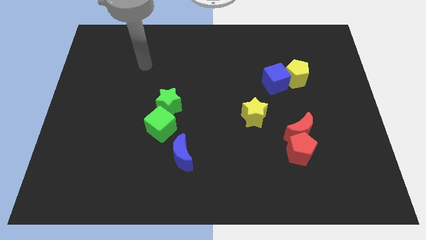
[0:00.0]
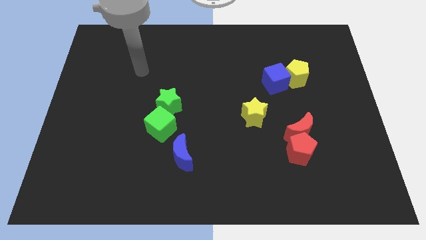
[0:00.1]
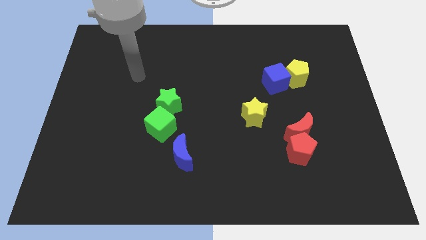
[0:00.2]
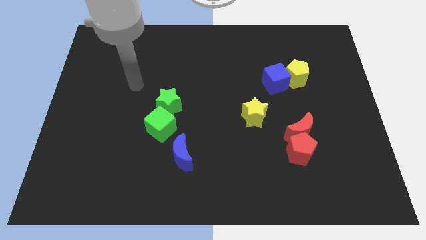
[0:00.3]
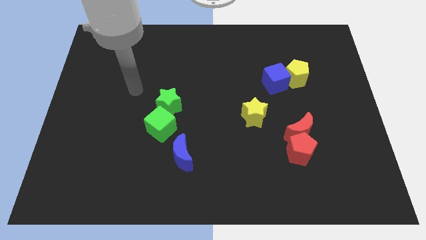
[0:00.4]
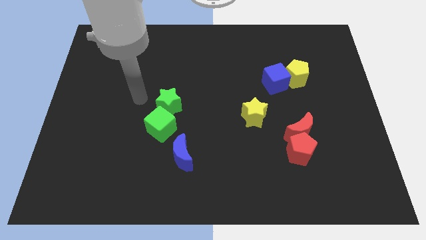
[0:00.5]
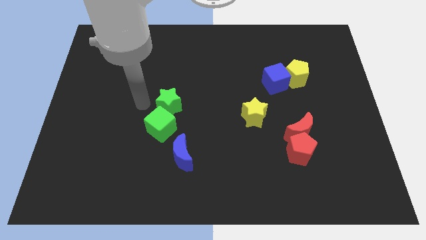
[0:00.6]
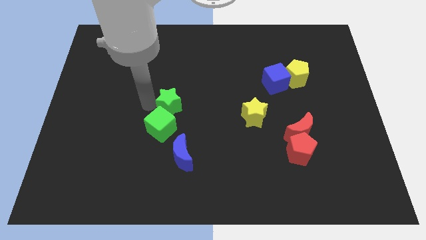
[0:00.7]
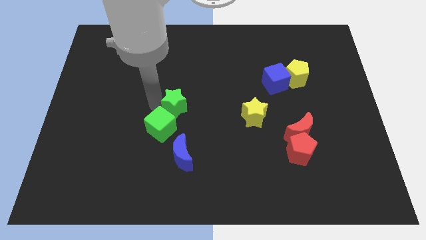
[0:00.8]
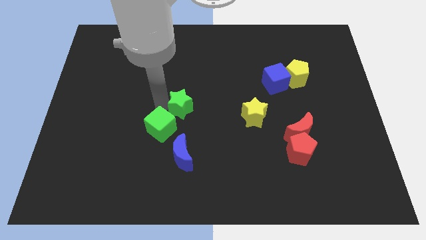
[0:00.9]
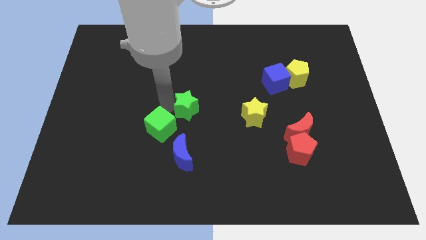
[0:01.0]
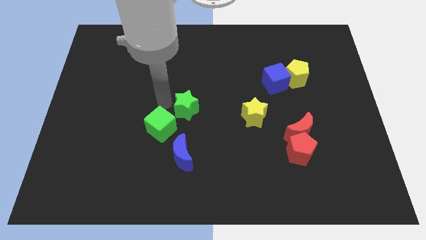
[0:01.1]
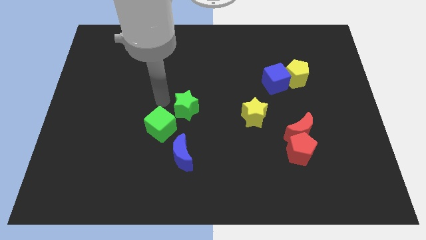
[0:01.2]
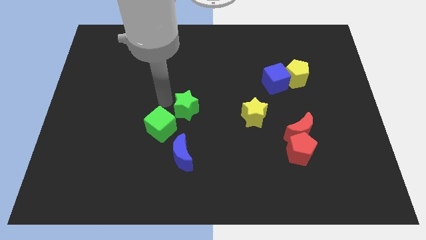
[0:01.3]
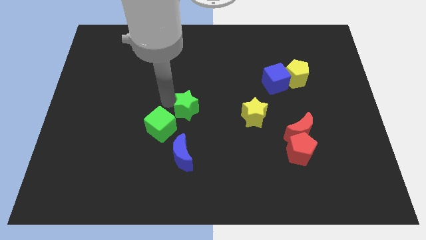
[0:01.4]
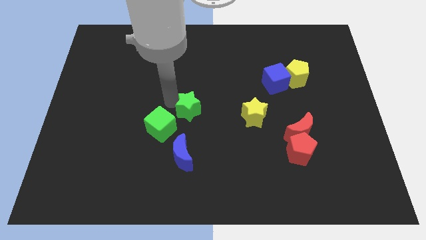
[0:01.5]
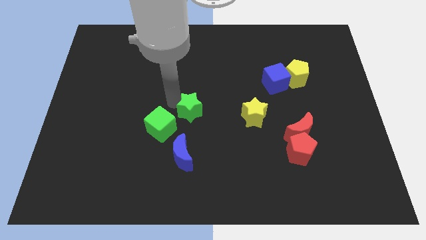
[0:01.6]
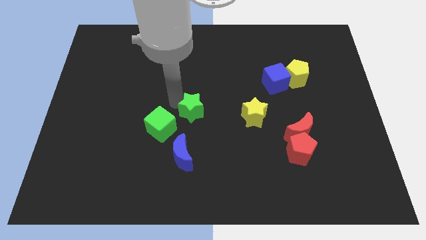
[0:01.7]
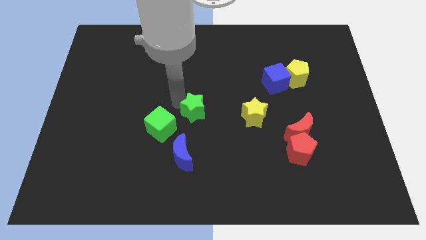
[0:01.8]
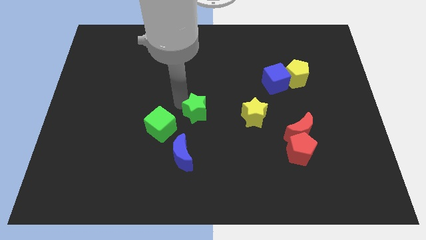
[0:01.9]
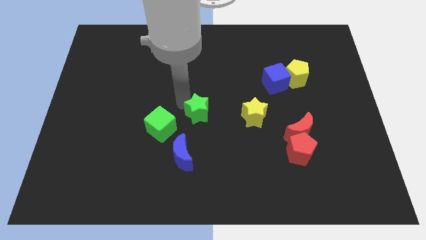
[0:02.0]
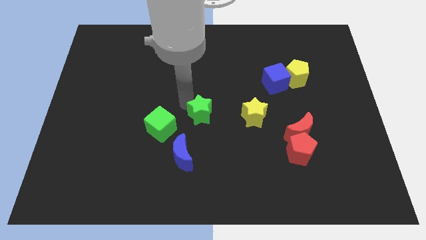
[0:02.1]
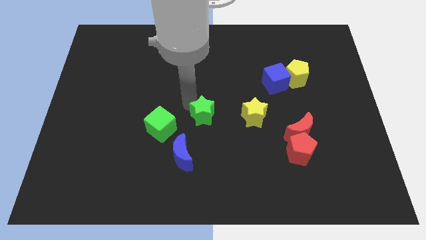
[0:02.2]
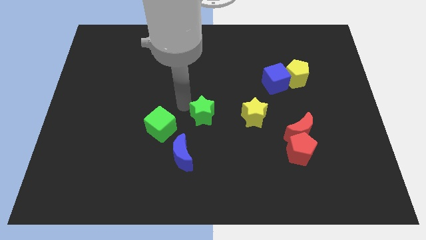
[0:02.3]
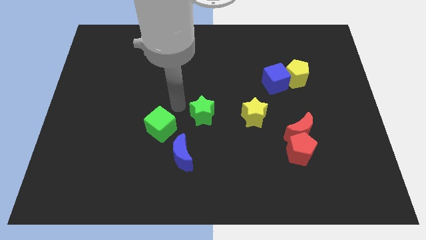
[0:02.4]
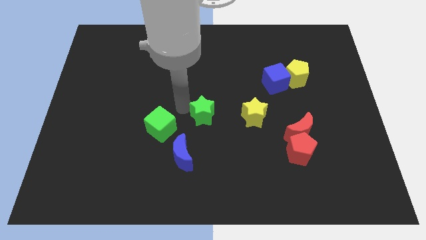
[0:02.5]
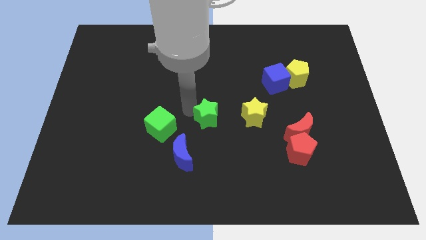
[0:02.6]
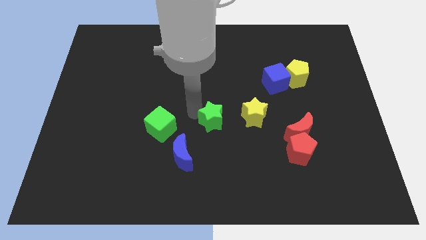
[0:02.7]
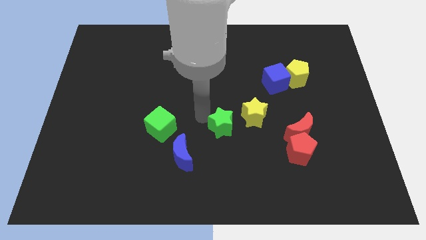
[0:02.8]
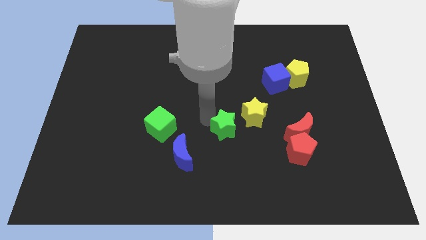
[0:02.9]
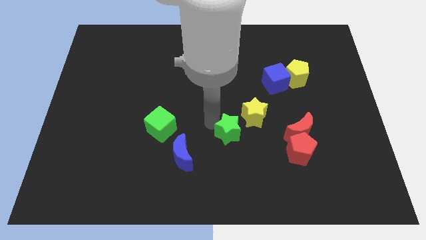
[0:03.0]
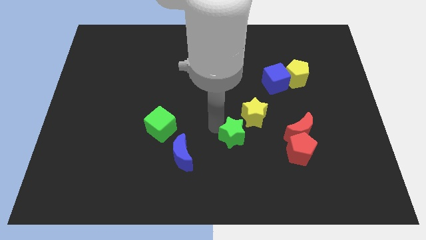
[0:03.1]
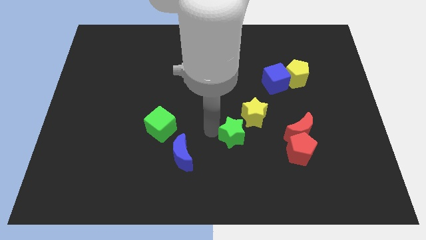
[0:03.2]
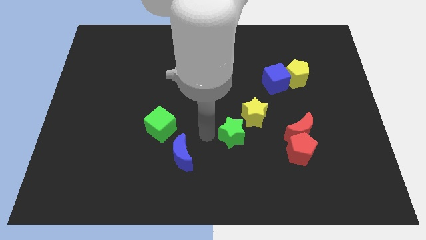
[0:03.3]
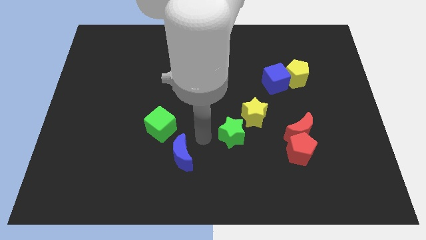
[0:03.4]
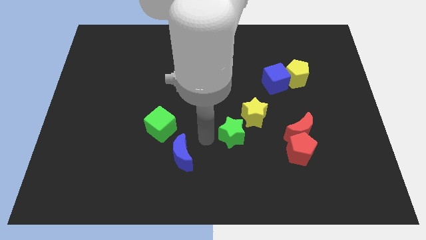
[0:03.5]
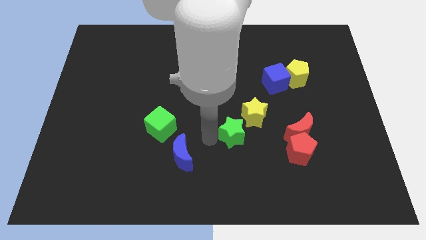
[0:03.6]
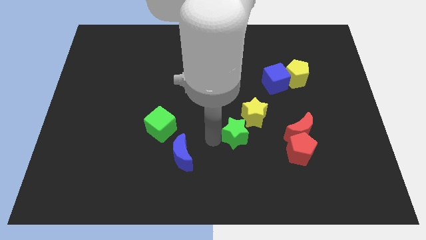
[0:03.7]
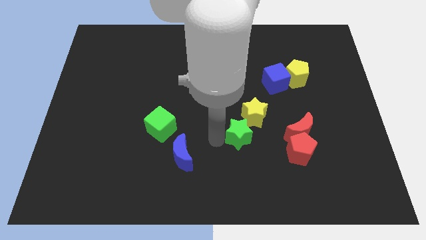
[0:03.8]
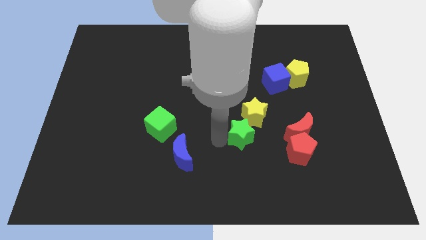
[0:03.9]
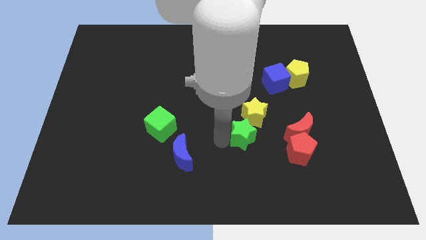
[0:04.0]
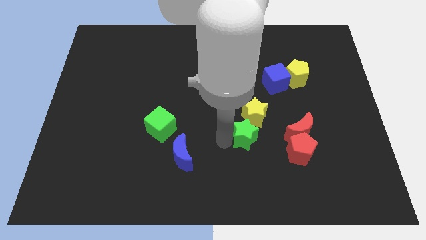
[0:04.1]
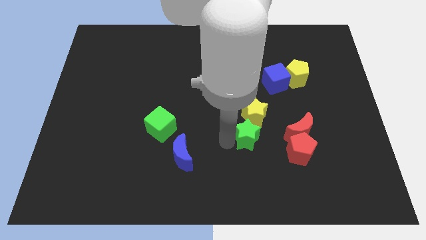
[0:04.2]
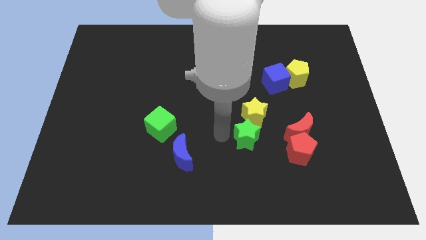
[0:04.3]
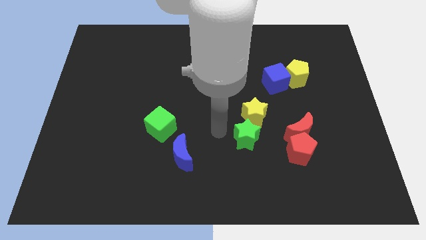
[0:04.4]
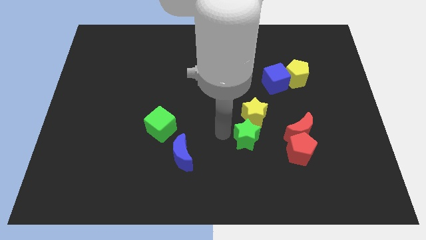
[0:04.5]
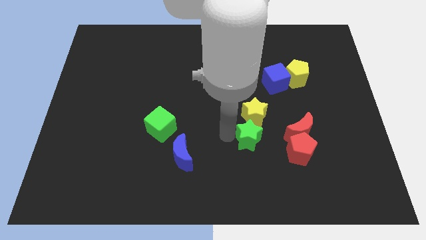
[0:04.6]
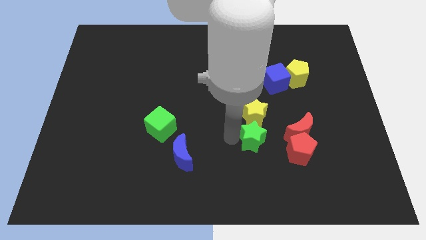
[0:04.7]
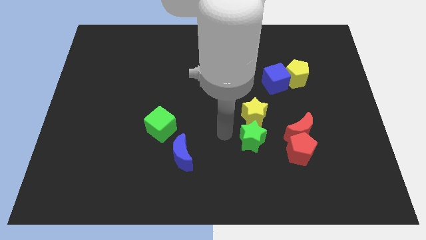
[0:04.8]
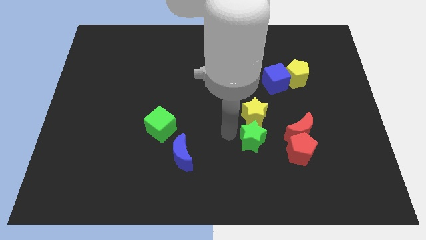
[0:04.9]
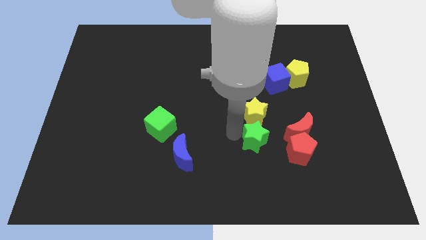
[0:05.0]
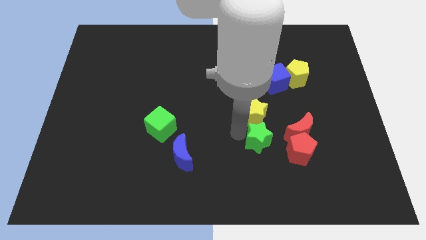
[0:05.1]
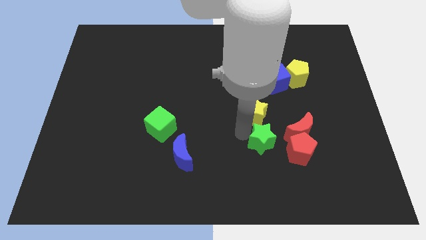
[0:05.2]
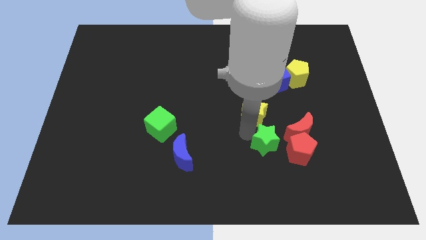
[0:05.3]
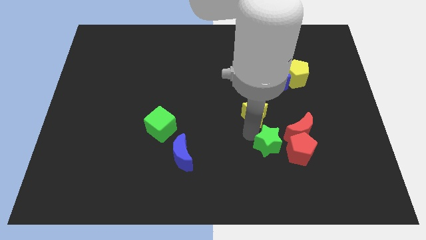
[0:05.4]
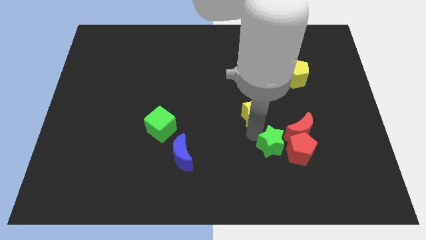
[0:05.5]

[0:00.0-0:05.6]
move the green star to the red pentagon

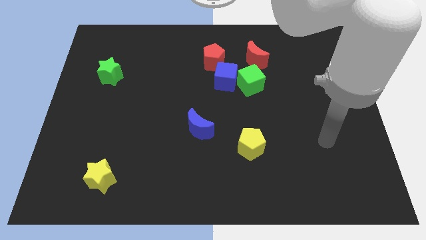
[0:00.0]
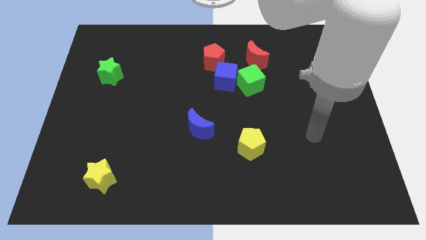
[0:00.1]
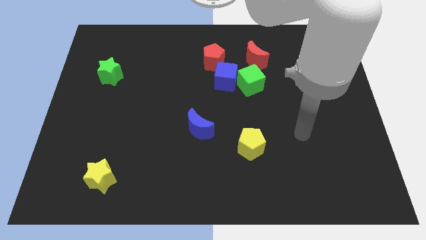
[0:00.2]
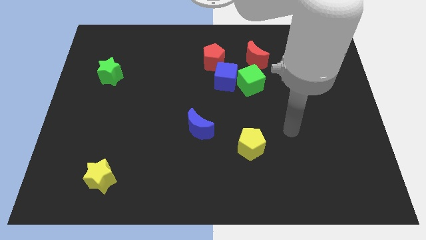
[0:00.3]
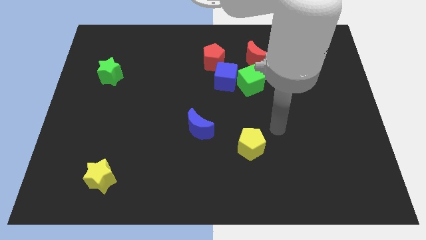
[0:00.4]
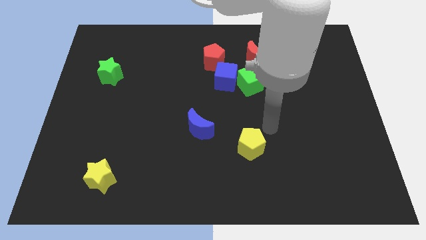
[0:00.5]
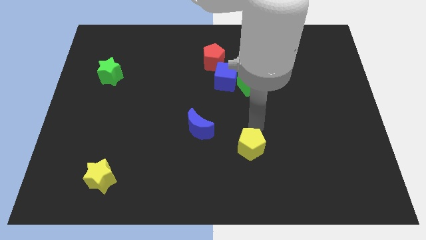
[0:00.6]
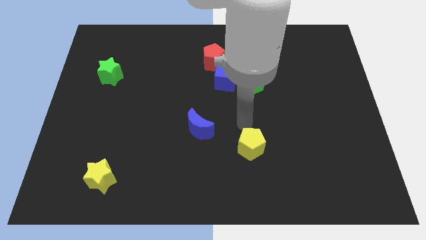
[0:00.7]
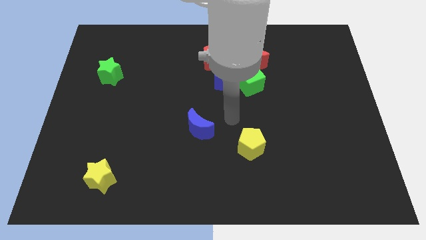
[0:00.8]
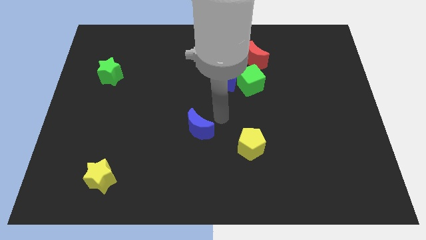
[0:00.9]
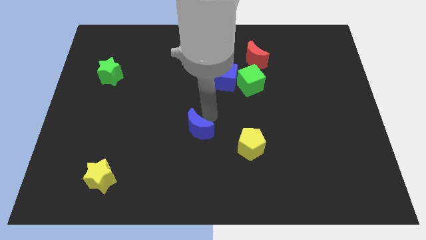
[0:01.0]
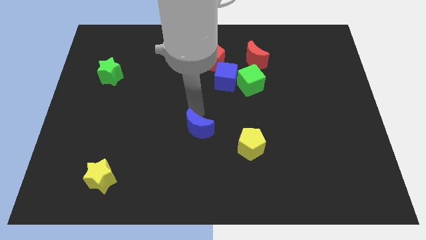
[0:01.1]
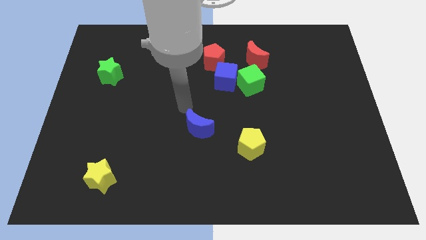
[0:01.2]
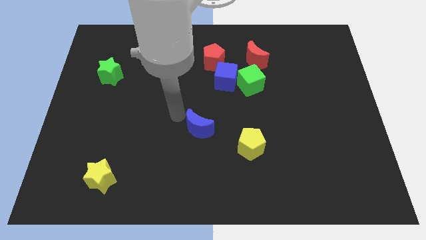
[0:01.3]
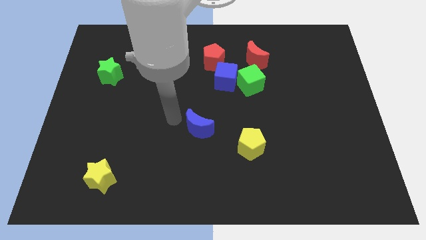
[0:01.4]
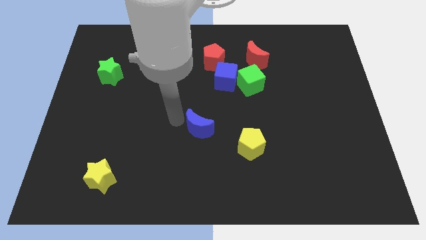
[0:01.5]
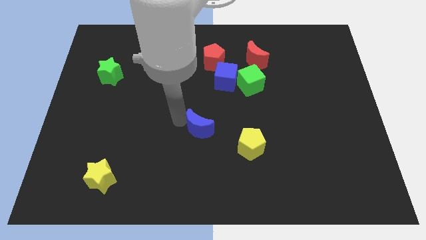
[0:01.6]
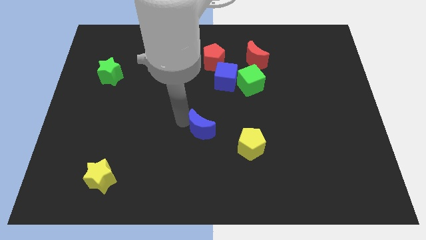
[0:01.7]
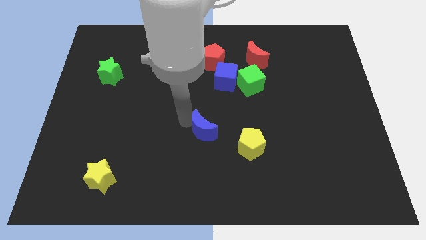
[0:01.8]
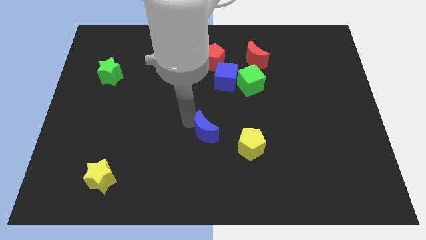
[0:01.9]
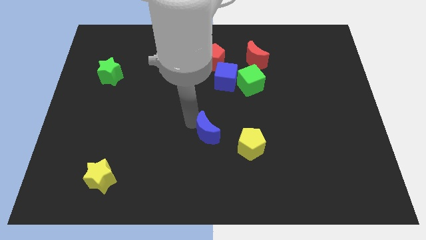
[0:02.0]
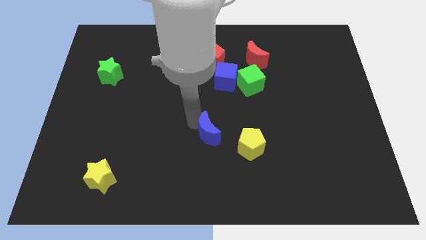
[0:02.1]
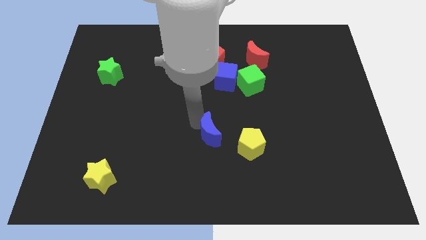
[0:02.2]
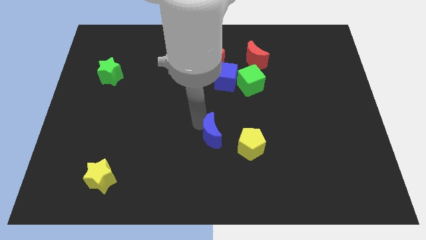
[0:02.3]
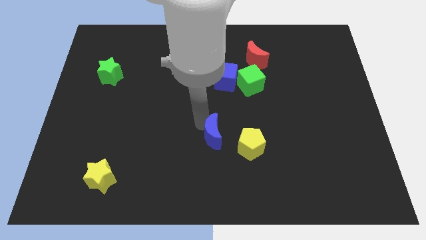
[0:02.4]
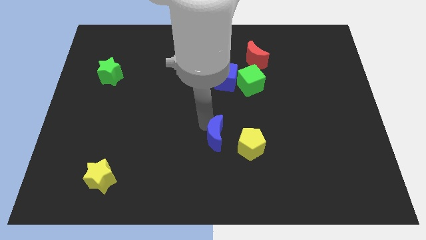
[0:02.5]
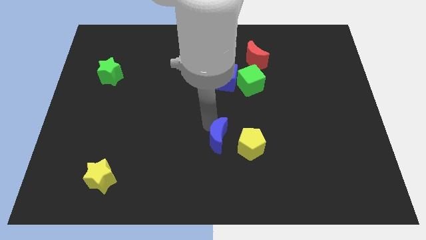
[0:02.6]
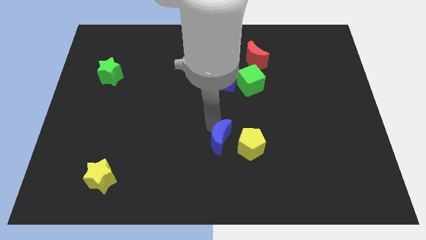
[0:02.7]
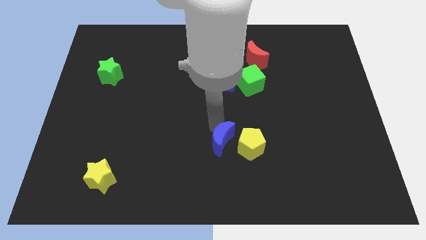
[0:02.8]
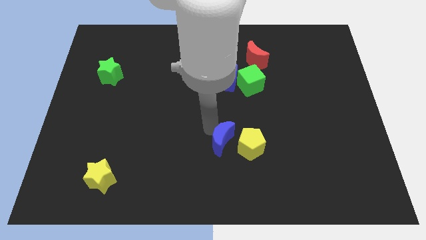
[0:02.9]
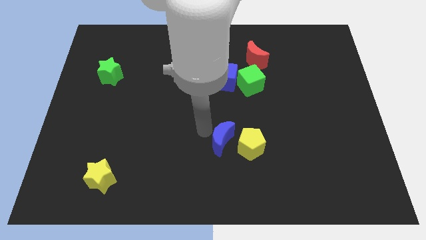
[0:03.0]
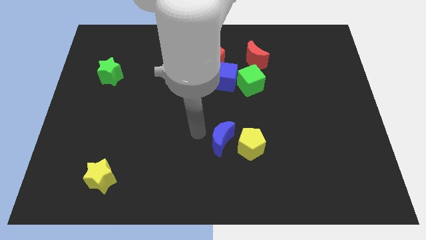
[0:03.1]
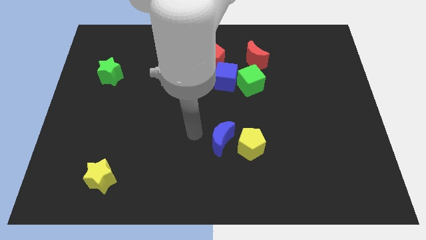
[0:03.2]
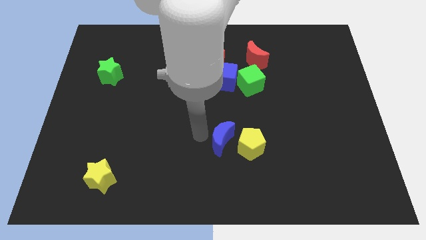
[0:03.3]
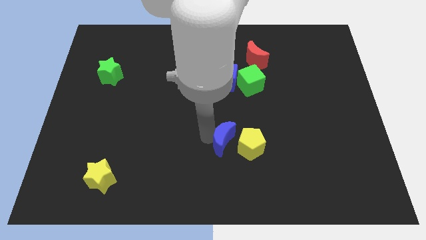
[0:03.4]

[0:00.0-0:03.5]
slide the blue moon close to the yellow pentagon
